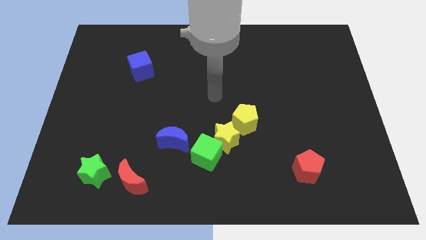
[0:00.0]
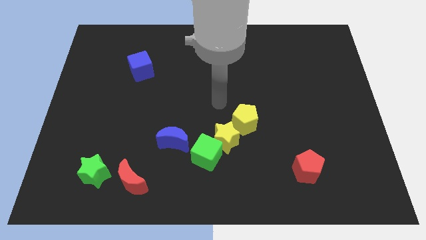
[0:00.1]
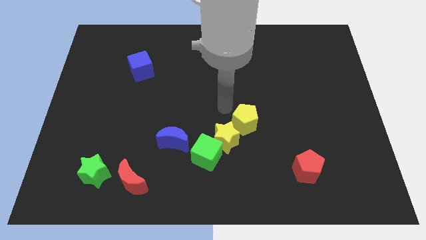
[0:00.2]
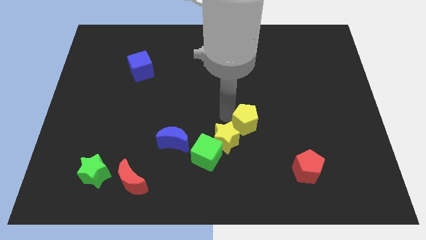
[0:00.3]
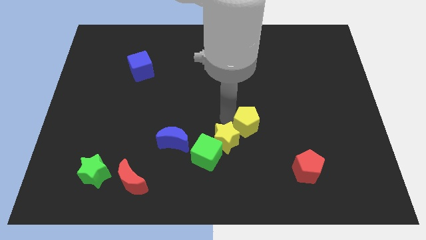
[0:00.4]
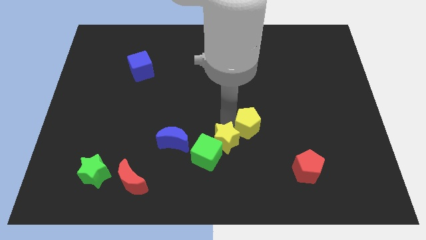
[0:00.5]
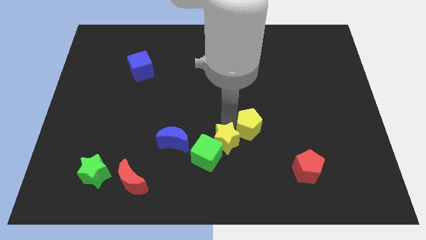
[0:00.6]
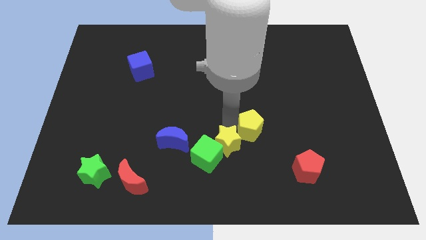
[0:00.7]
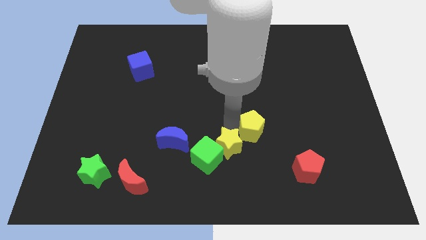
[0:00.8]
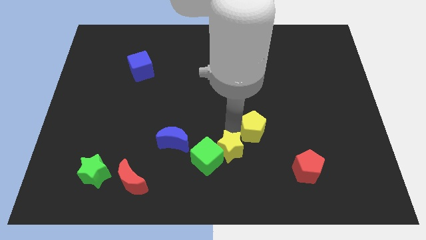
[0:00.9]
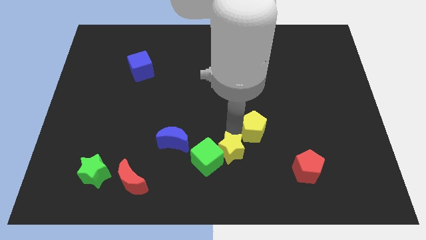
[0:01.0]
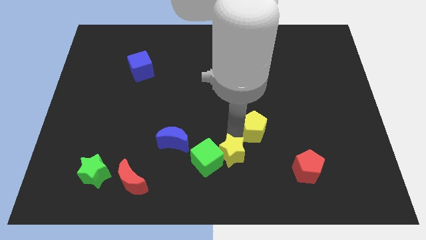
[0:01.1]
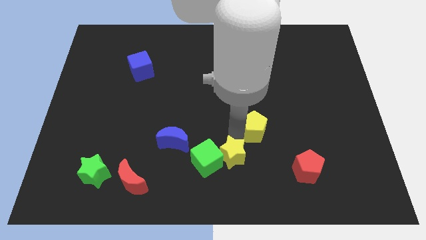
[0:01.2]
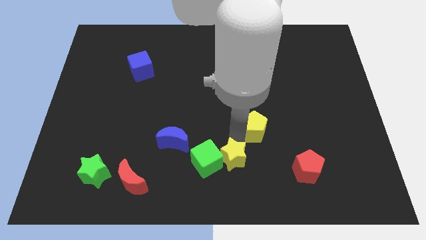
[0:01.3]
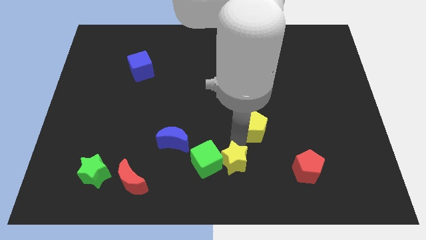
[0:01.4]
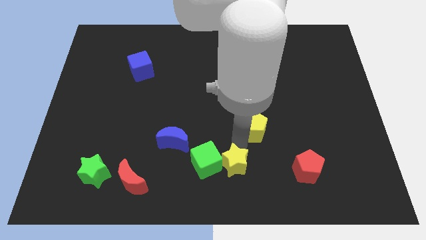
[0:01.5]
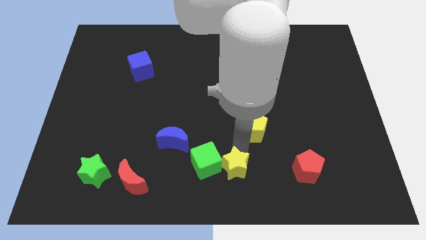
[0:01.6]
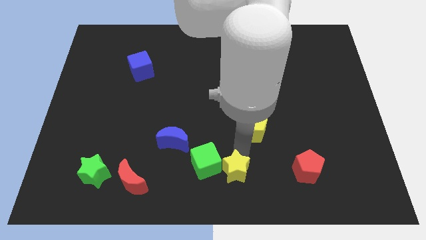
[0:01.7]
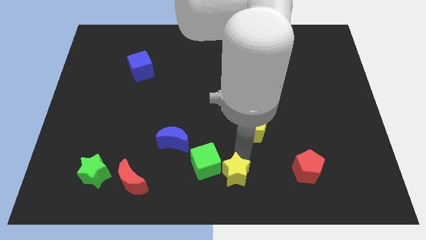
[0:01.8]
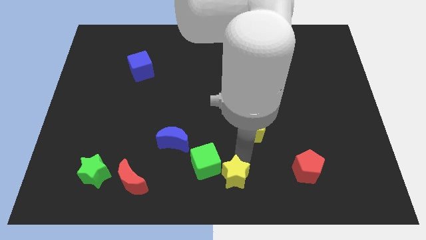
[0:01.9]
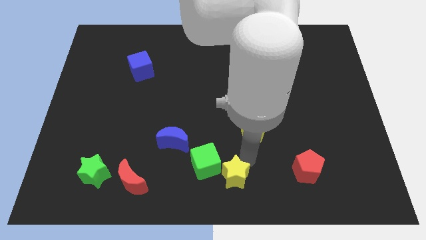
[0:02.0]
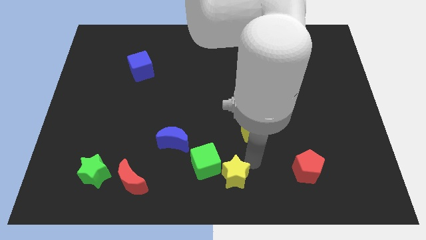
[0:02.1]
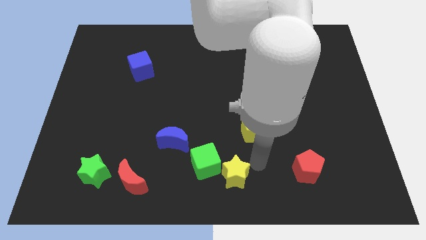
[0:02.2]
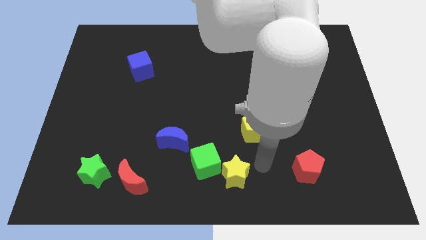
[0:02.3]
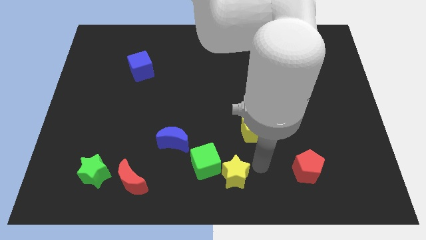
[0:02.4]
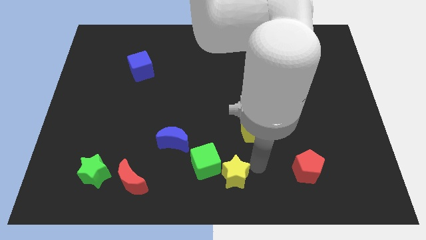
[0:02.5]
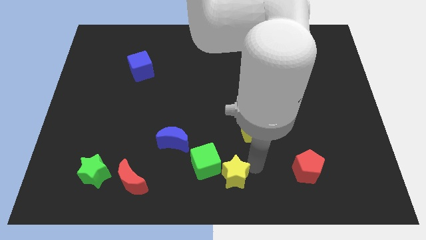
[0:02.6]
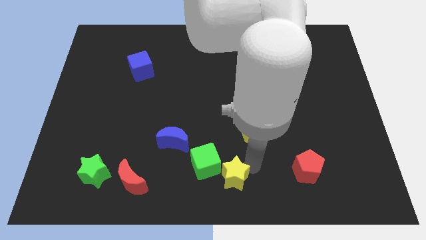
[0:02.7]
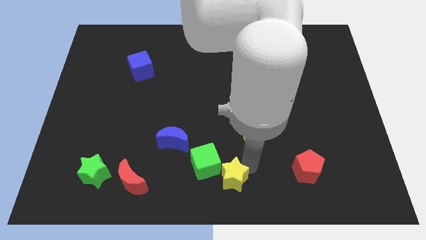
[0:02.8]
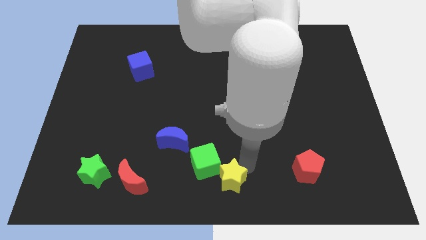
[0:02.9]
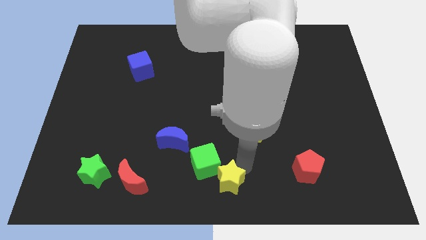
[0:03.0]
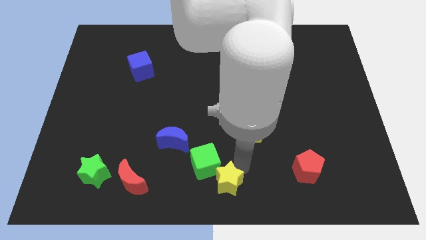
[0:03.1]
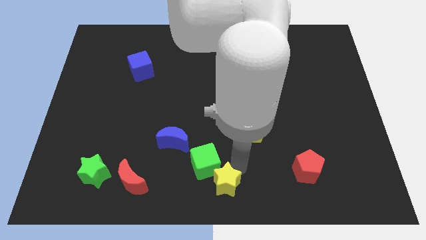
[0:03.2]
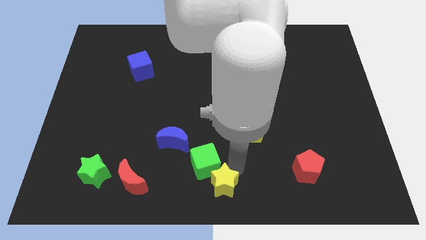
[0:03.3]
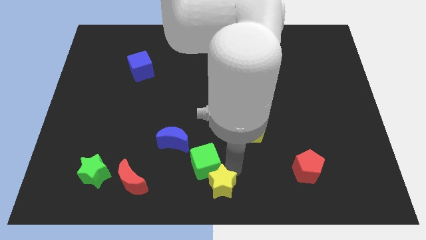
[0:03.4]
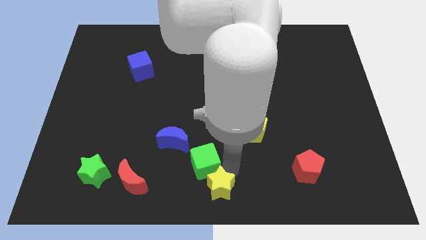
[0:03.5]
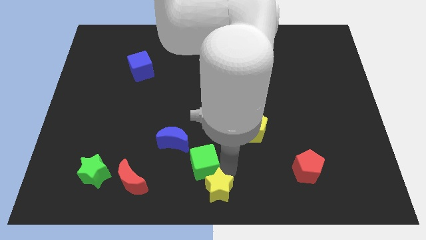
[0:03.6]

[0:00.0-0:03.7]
pull the yellow star apart from the green cube and yellow pentagon

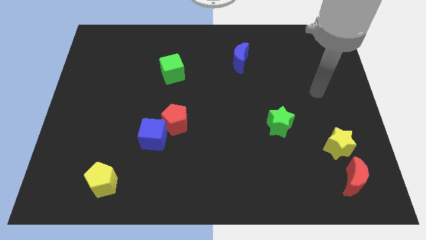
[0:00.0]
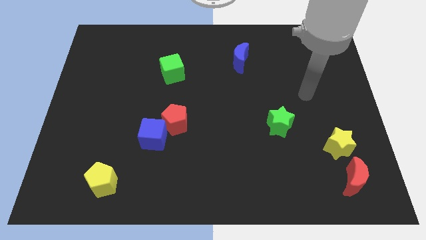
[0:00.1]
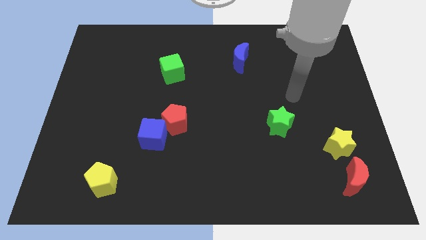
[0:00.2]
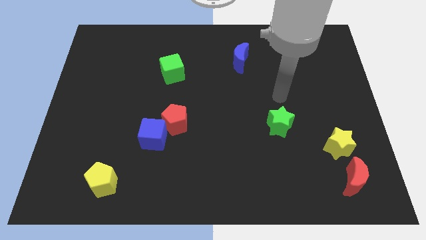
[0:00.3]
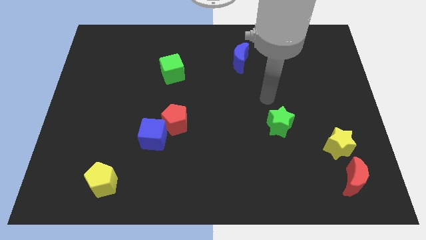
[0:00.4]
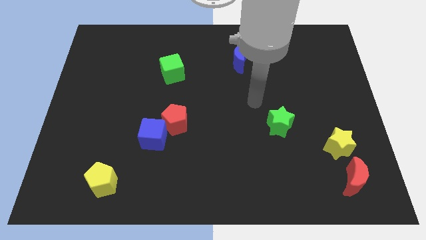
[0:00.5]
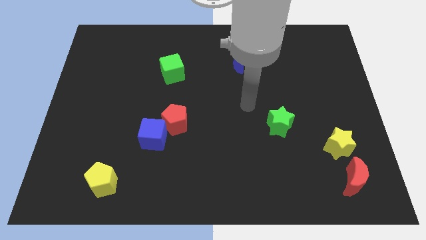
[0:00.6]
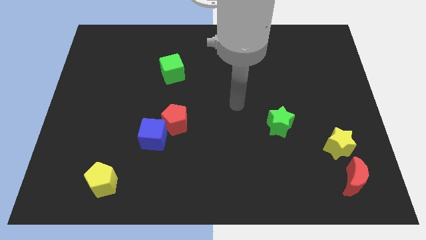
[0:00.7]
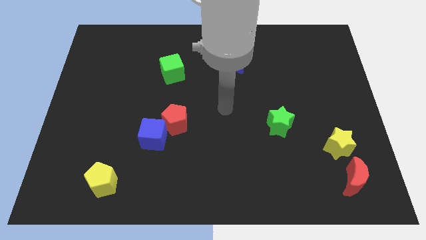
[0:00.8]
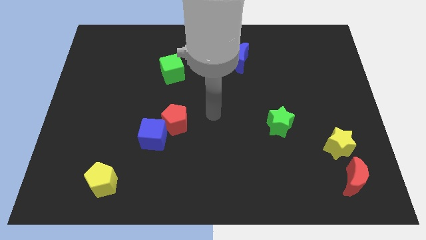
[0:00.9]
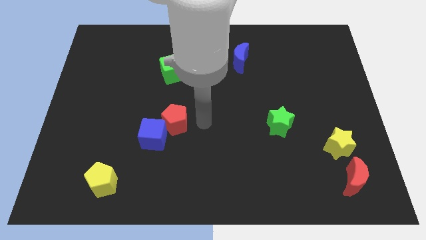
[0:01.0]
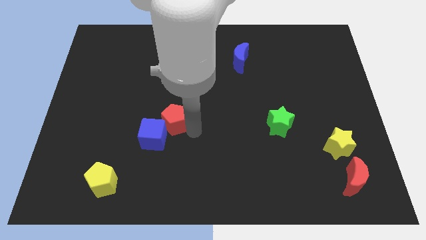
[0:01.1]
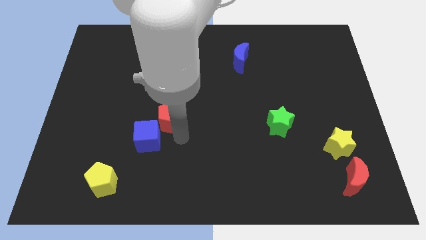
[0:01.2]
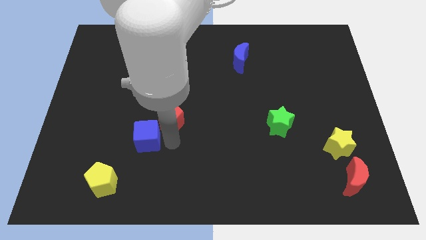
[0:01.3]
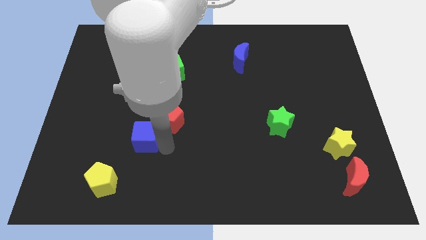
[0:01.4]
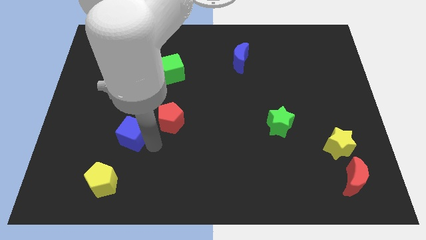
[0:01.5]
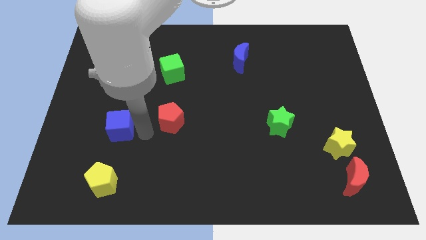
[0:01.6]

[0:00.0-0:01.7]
move the red pentagon away from the blue cube

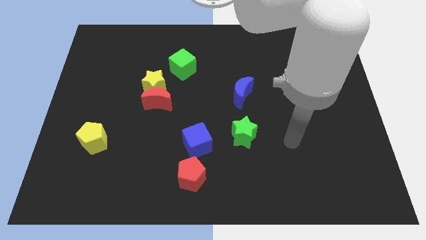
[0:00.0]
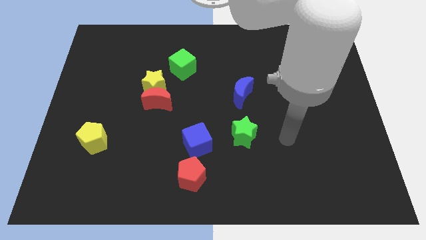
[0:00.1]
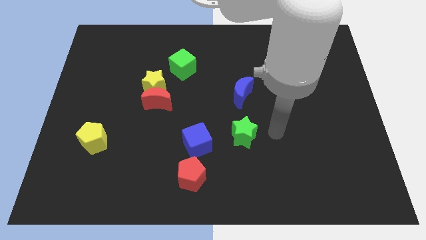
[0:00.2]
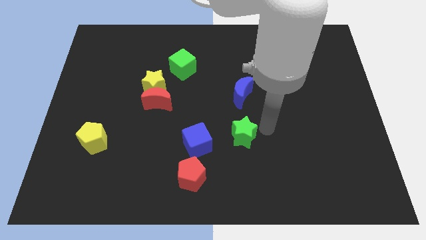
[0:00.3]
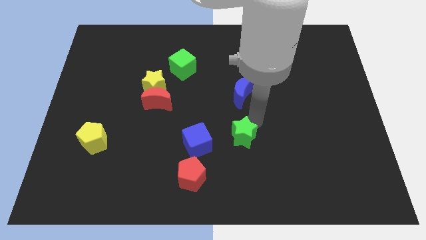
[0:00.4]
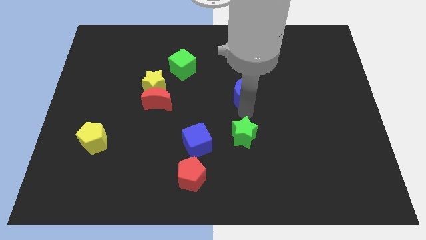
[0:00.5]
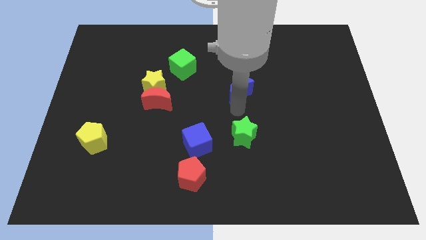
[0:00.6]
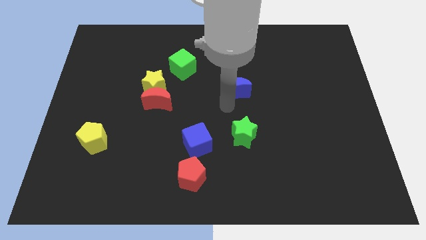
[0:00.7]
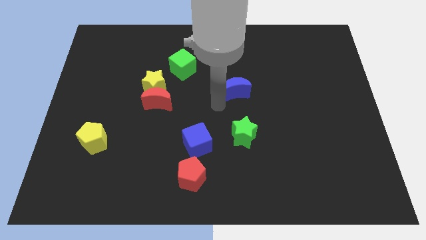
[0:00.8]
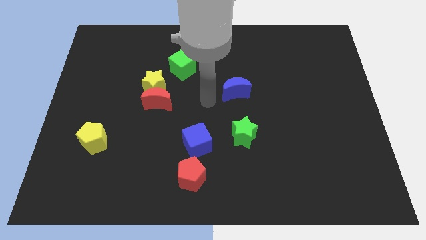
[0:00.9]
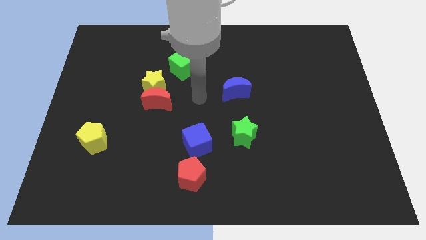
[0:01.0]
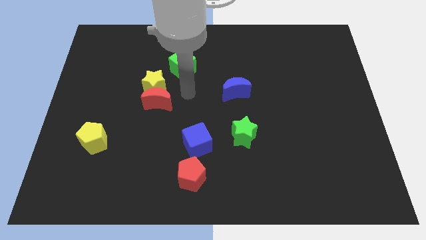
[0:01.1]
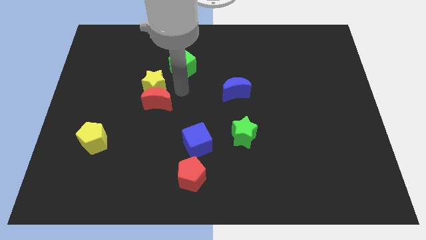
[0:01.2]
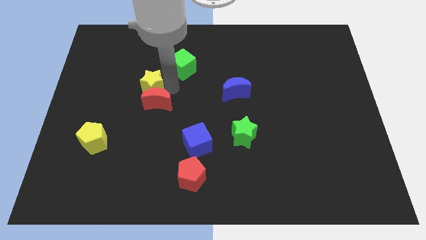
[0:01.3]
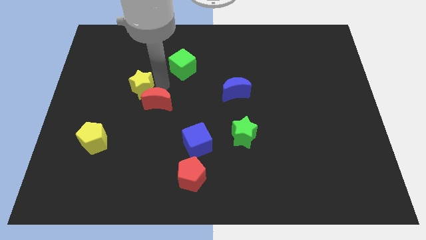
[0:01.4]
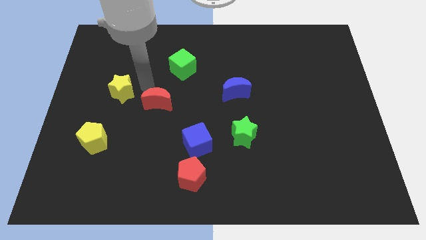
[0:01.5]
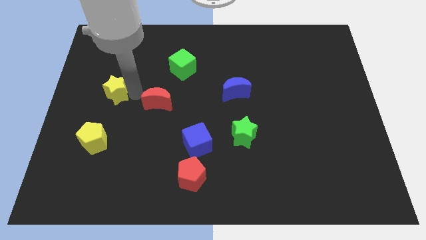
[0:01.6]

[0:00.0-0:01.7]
pull the red moon apart from the yellow star

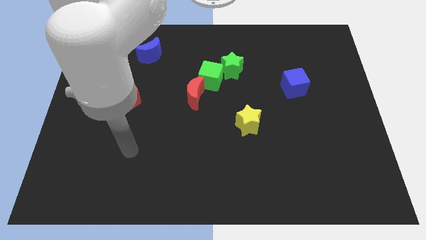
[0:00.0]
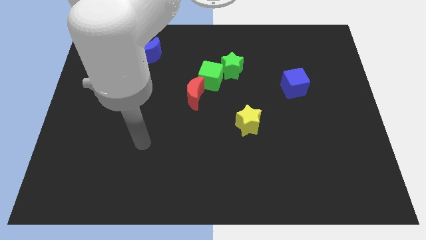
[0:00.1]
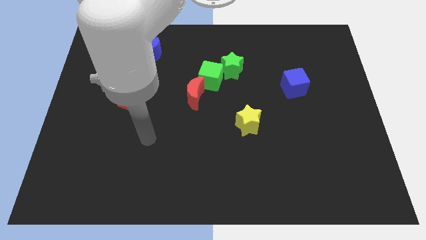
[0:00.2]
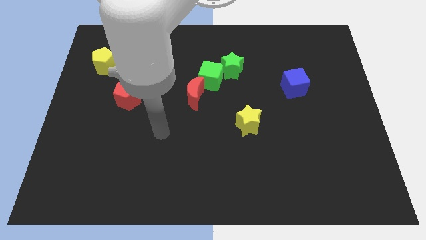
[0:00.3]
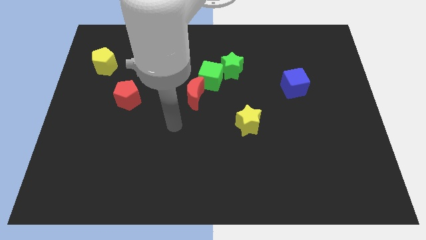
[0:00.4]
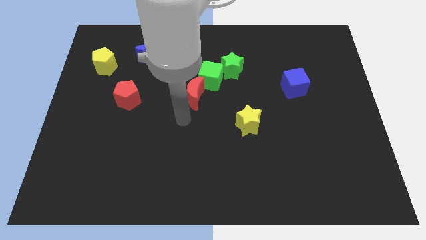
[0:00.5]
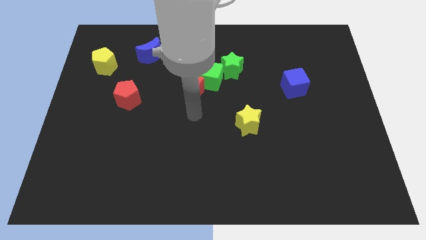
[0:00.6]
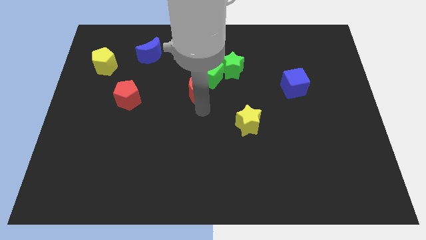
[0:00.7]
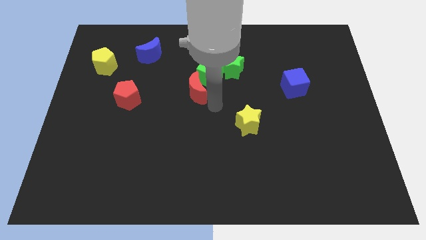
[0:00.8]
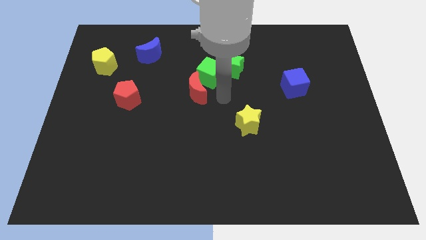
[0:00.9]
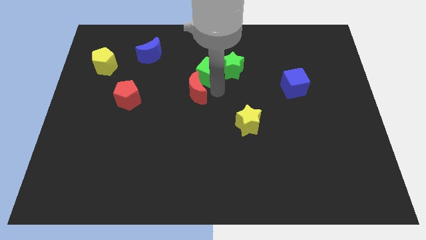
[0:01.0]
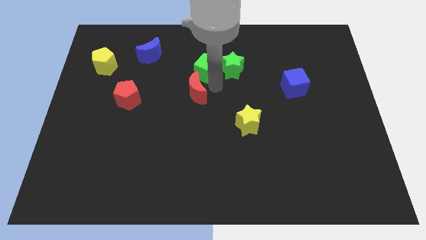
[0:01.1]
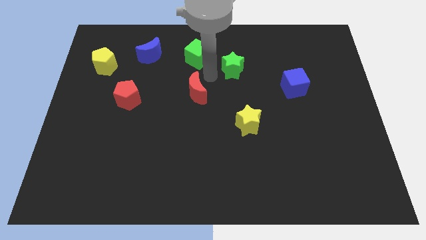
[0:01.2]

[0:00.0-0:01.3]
pull the green star apart from the green cube

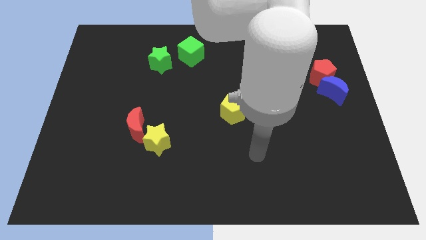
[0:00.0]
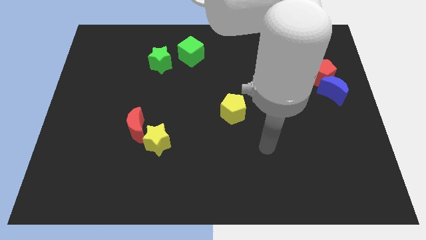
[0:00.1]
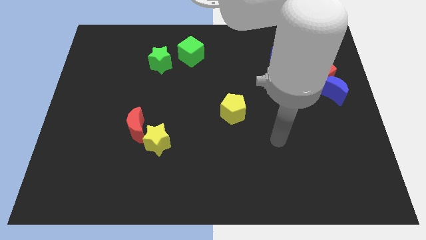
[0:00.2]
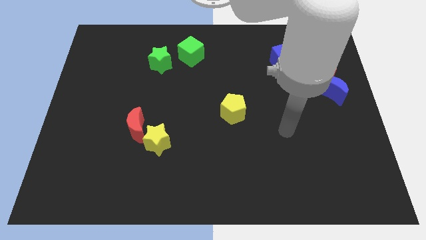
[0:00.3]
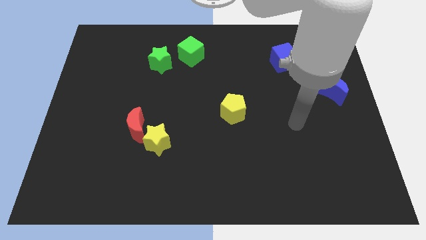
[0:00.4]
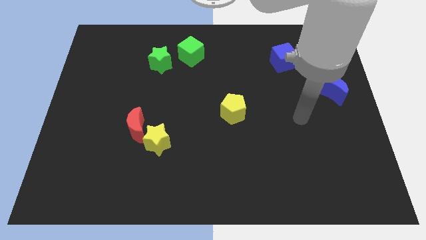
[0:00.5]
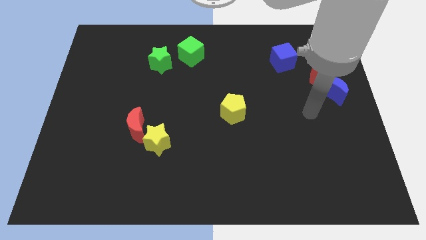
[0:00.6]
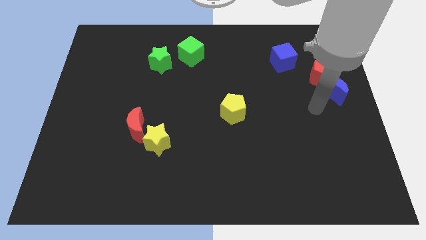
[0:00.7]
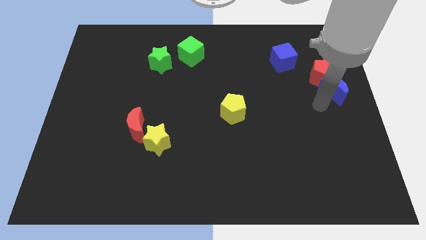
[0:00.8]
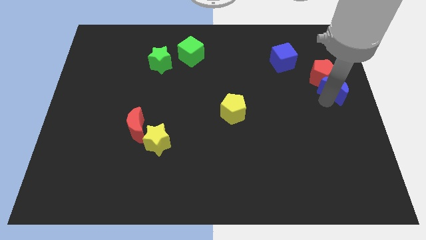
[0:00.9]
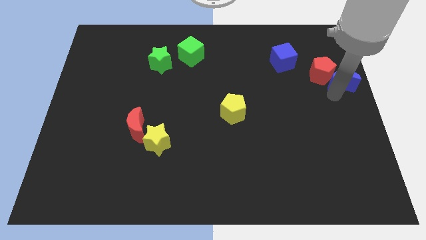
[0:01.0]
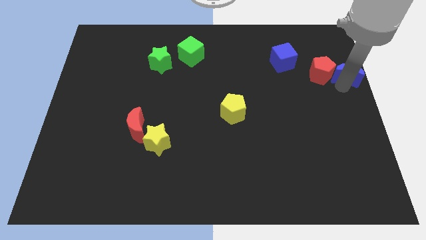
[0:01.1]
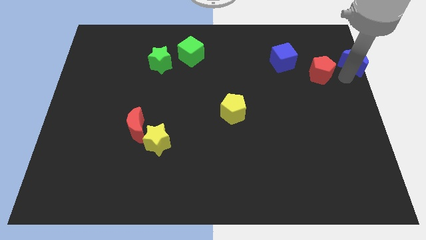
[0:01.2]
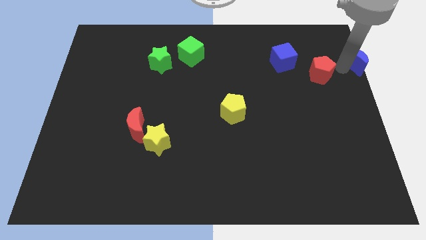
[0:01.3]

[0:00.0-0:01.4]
separate the red pentagon from the blue moon
